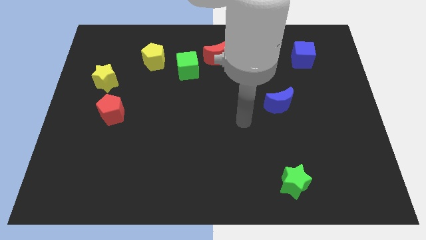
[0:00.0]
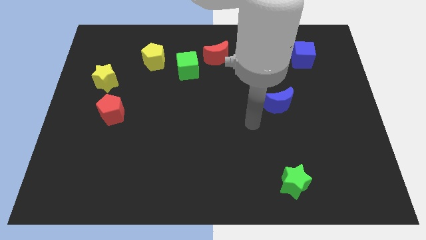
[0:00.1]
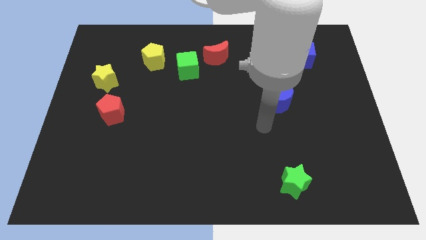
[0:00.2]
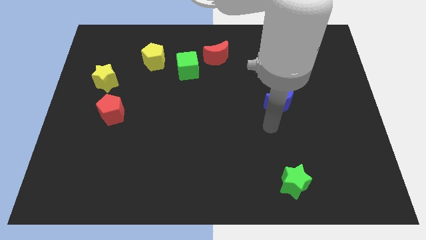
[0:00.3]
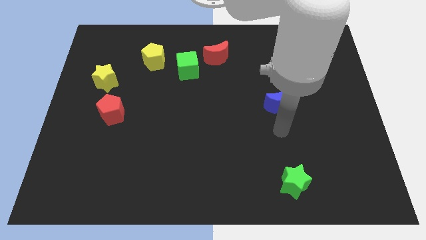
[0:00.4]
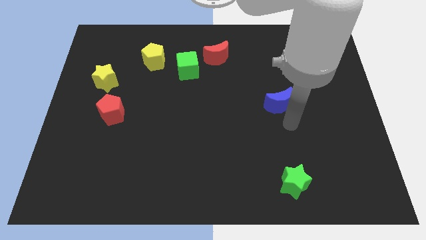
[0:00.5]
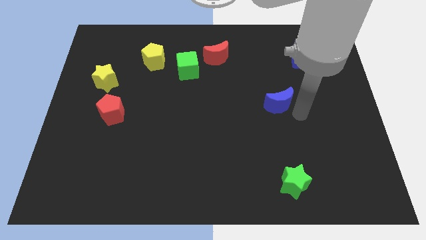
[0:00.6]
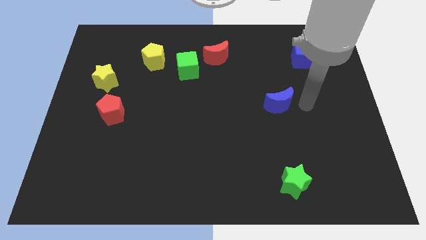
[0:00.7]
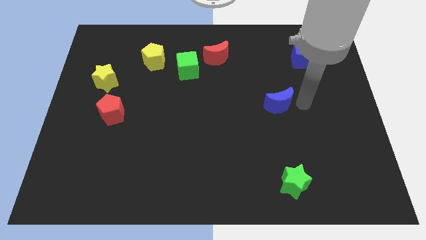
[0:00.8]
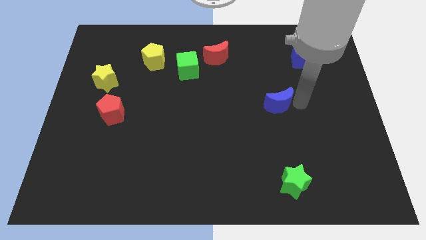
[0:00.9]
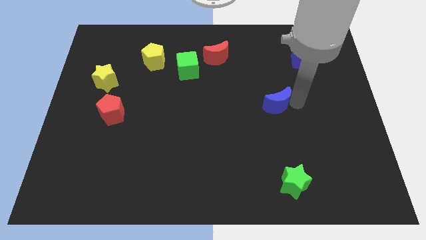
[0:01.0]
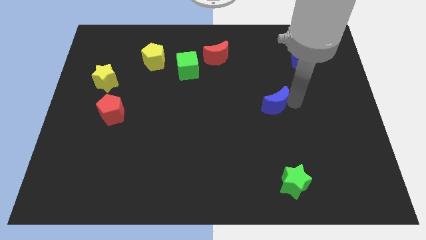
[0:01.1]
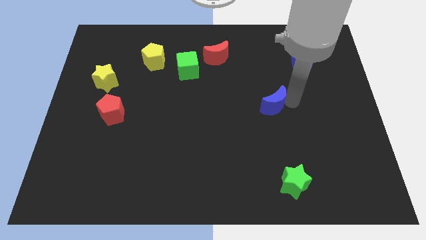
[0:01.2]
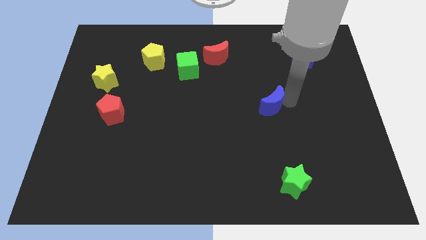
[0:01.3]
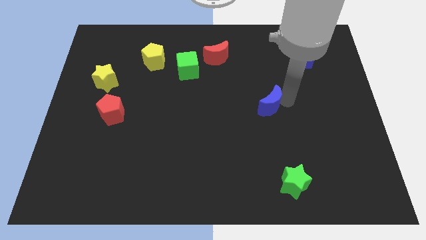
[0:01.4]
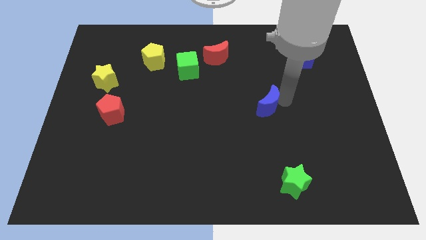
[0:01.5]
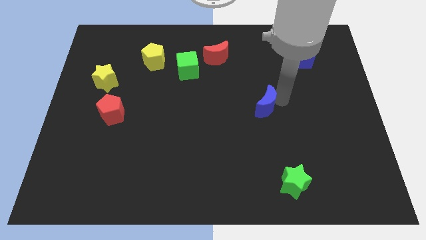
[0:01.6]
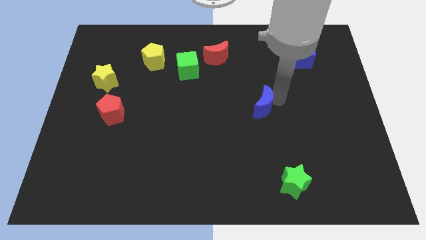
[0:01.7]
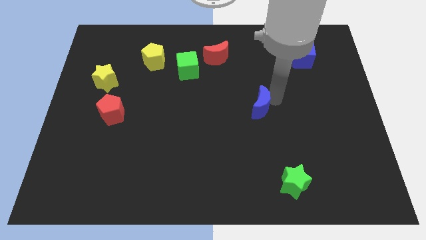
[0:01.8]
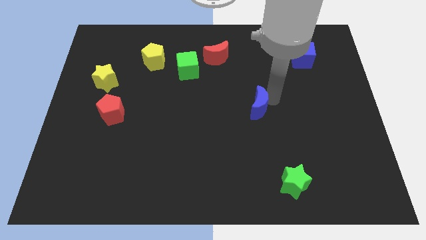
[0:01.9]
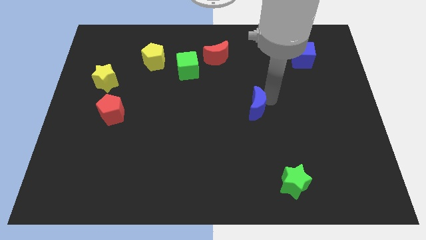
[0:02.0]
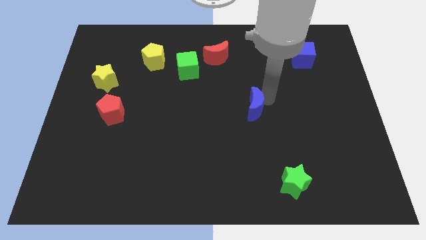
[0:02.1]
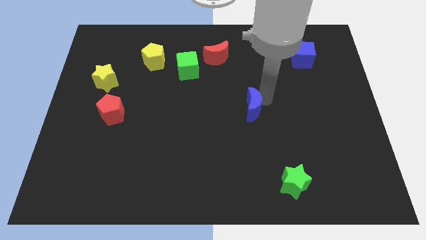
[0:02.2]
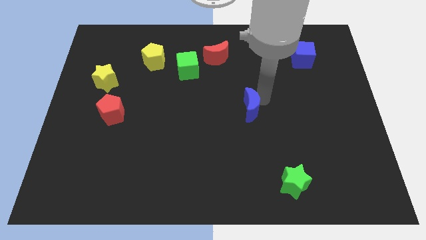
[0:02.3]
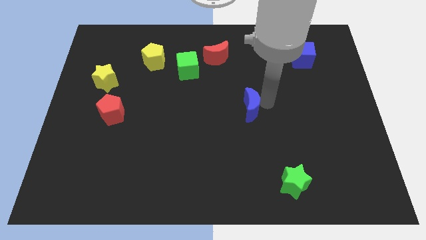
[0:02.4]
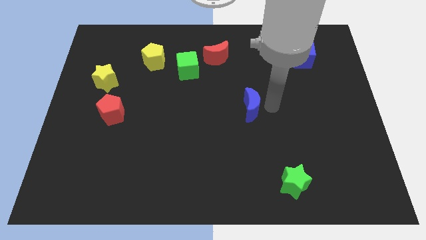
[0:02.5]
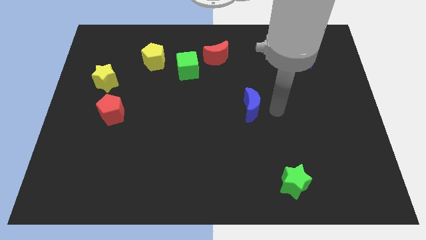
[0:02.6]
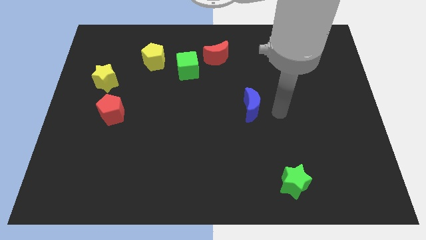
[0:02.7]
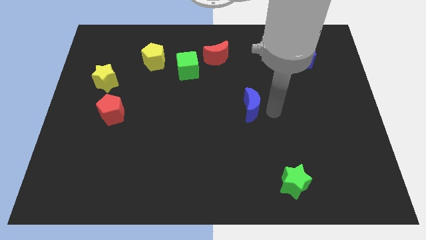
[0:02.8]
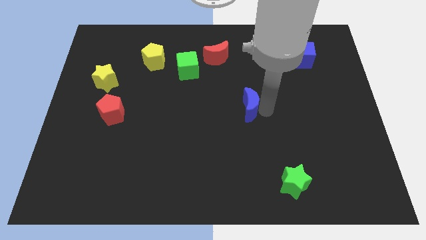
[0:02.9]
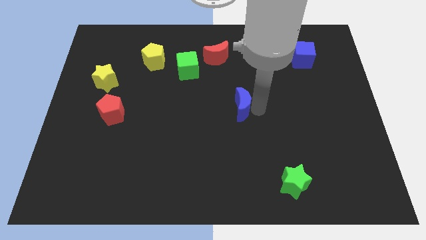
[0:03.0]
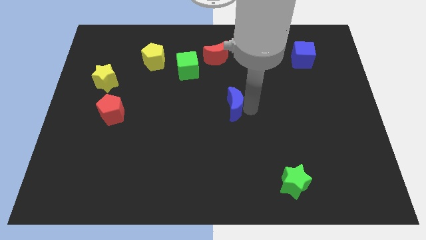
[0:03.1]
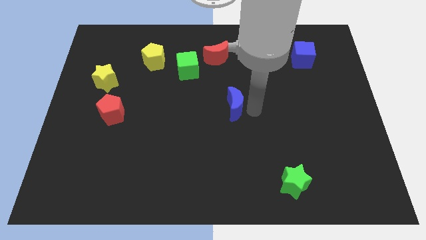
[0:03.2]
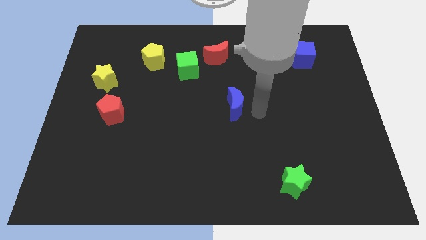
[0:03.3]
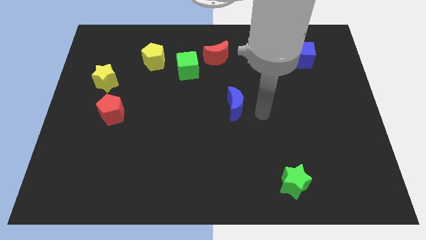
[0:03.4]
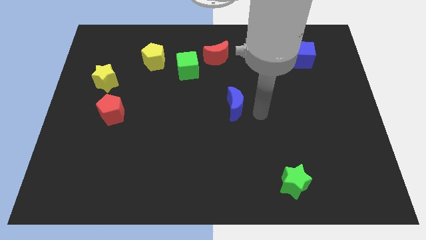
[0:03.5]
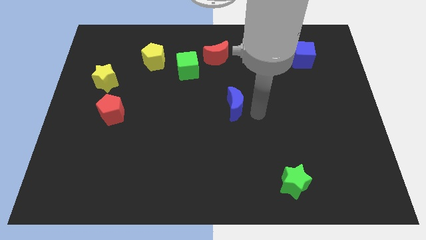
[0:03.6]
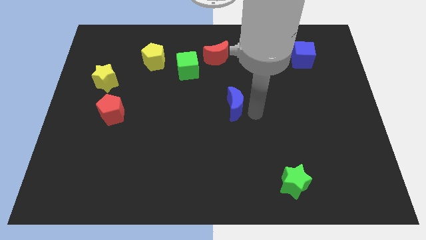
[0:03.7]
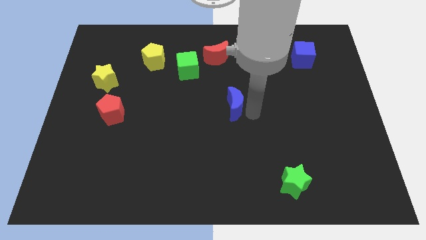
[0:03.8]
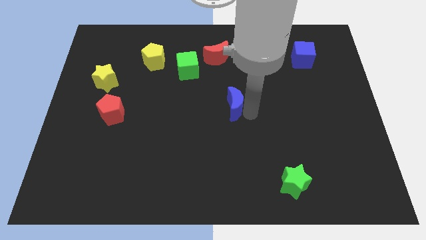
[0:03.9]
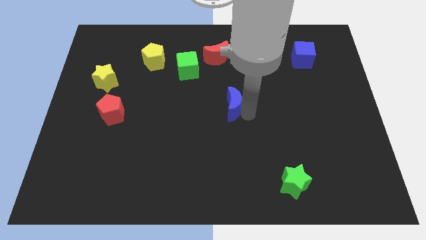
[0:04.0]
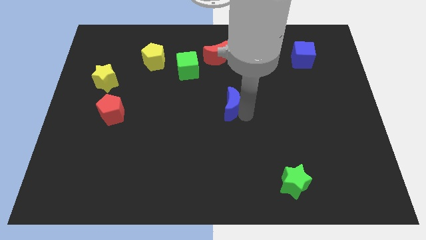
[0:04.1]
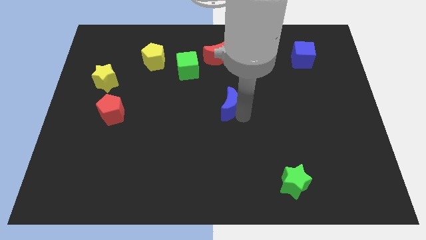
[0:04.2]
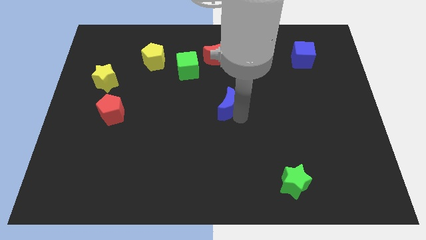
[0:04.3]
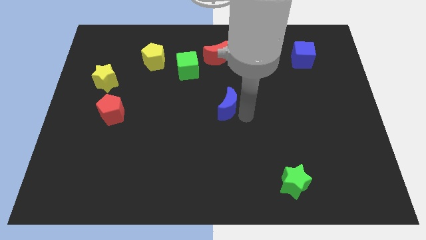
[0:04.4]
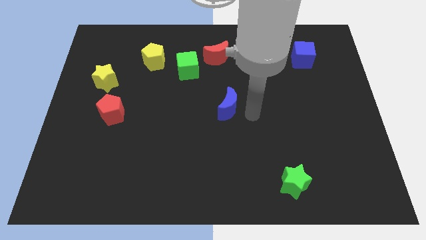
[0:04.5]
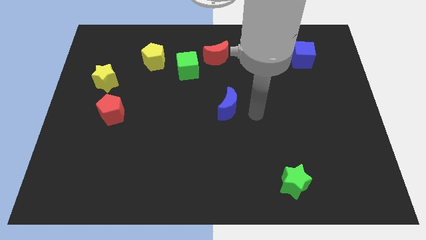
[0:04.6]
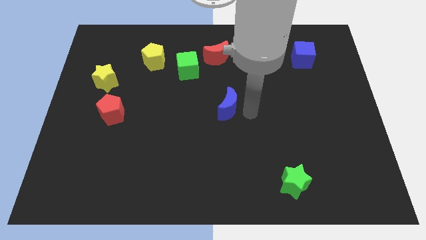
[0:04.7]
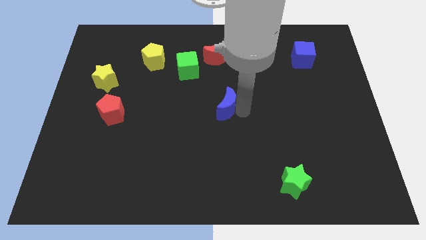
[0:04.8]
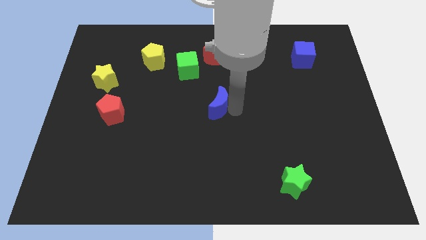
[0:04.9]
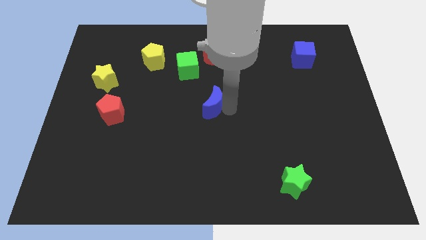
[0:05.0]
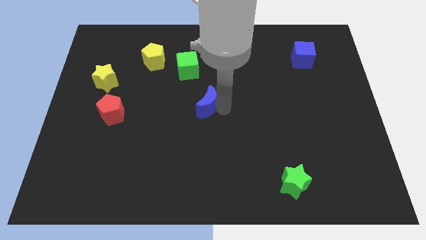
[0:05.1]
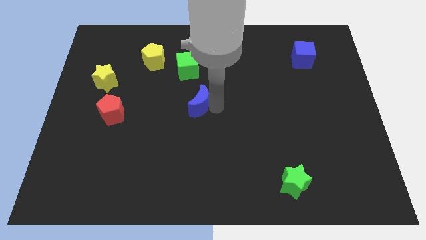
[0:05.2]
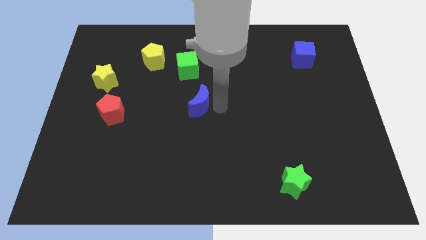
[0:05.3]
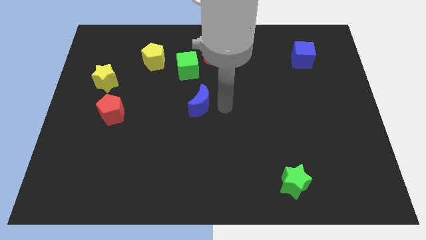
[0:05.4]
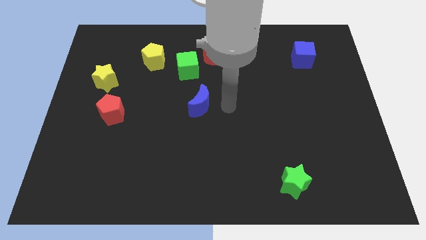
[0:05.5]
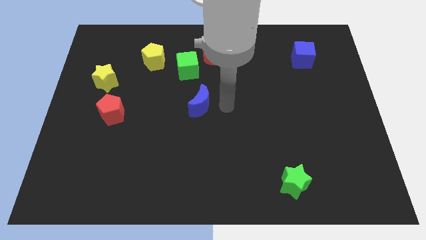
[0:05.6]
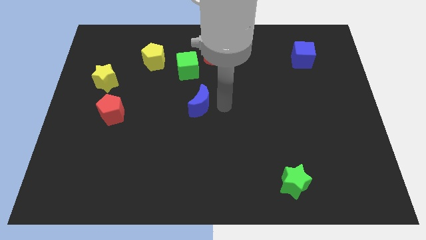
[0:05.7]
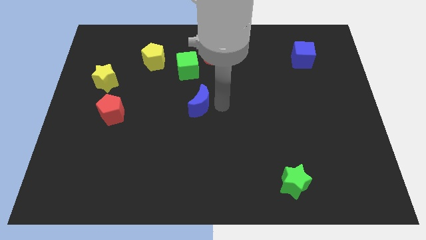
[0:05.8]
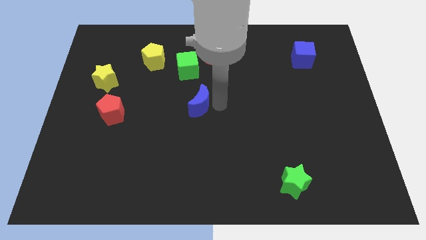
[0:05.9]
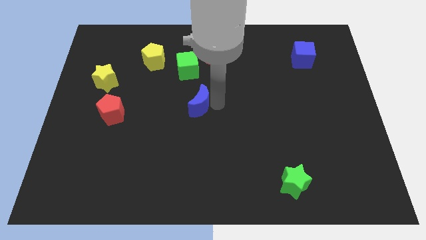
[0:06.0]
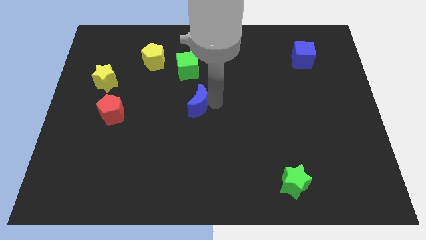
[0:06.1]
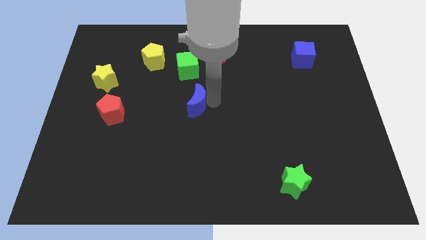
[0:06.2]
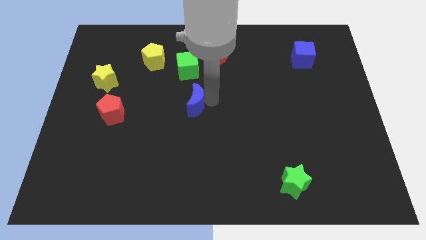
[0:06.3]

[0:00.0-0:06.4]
push the blue moon left

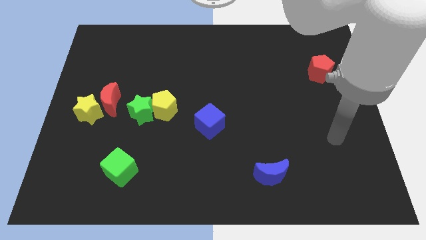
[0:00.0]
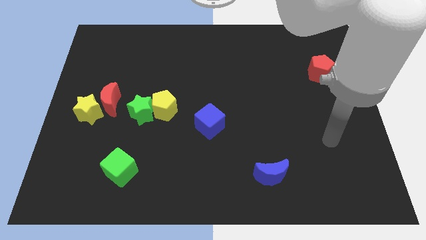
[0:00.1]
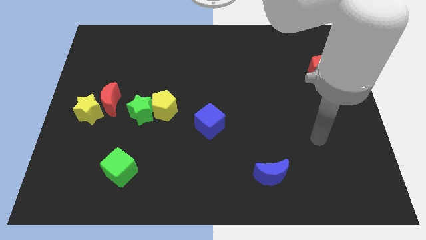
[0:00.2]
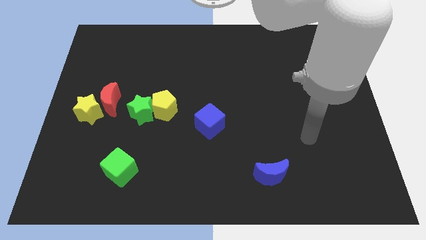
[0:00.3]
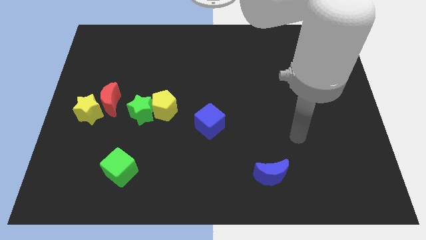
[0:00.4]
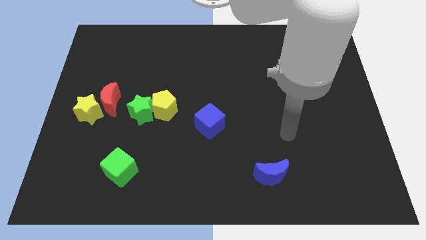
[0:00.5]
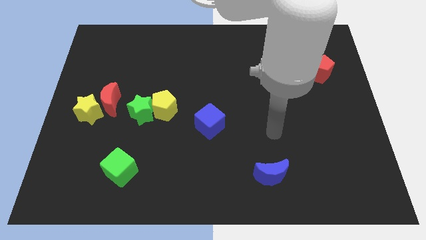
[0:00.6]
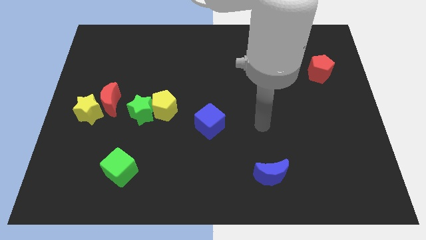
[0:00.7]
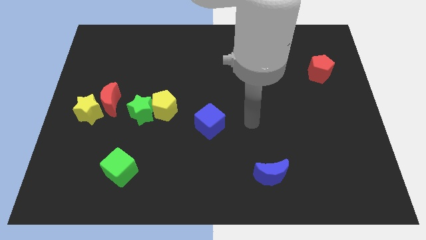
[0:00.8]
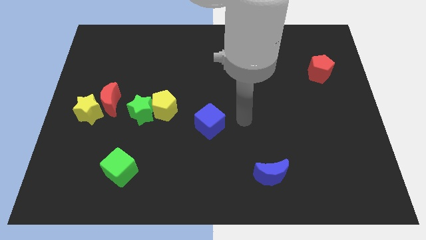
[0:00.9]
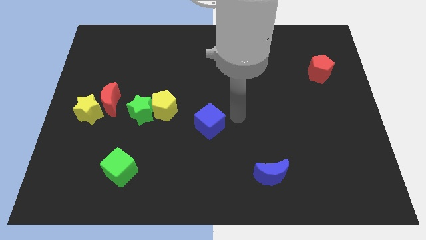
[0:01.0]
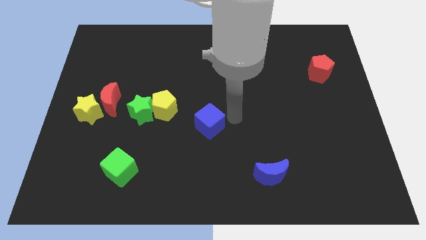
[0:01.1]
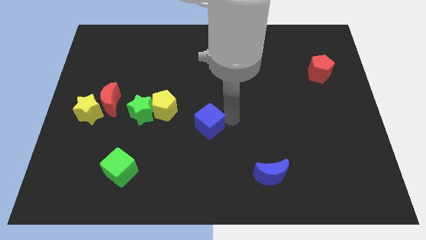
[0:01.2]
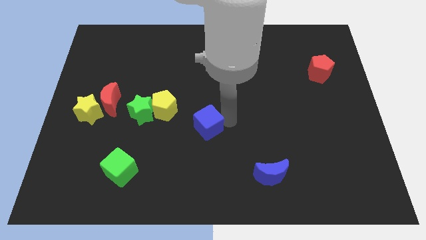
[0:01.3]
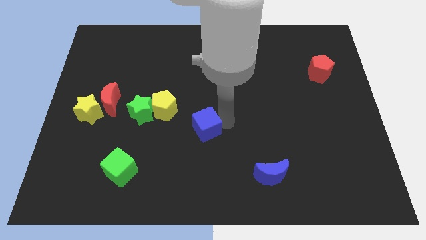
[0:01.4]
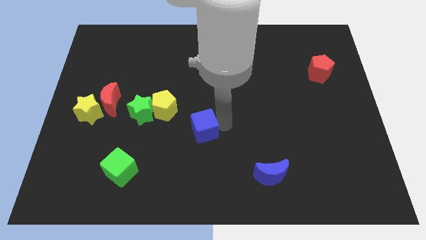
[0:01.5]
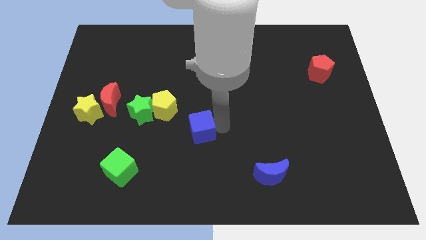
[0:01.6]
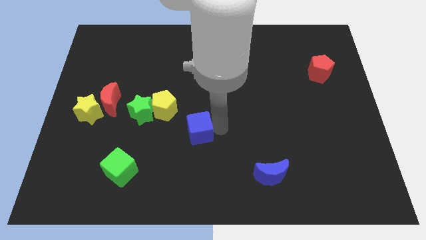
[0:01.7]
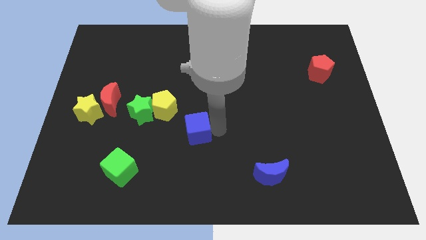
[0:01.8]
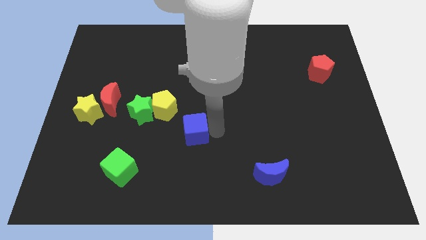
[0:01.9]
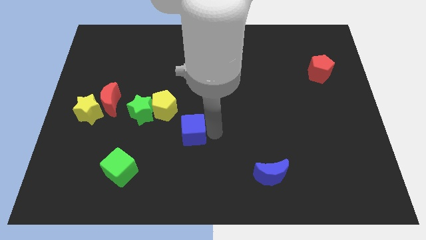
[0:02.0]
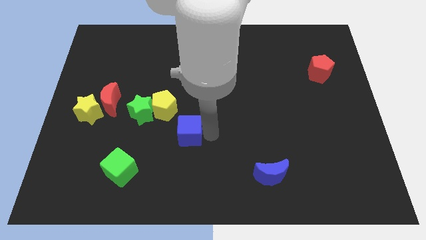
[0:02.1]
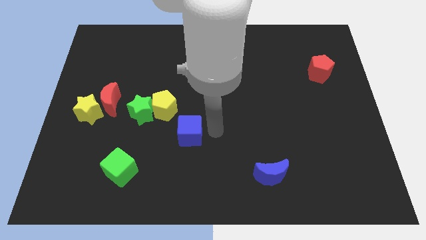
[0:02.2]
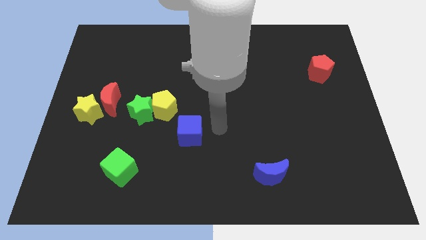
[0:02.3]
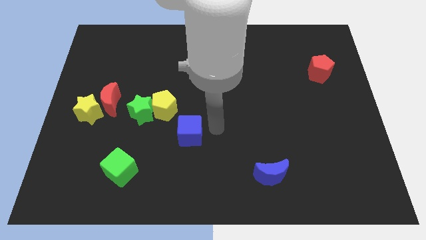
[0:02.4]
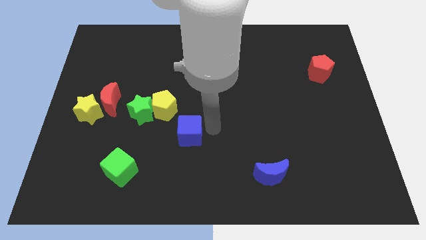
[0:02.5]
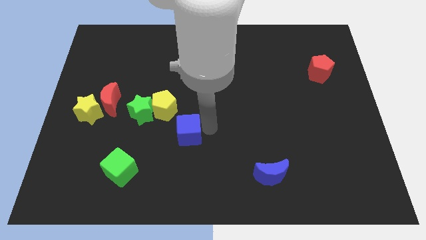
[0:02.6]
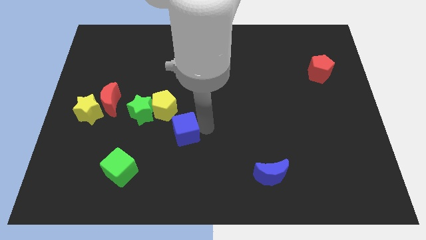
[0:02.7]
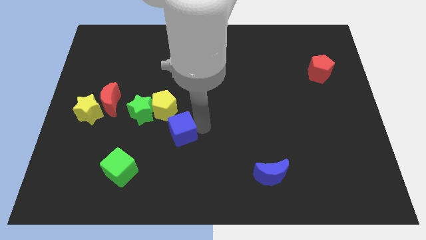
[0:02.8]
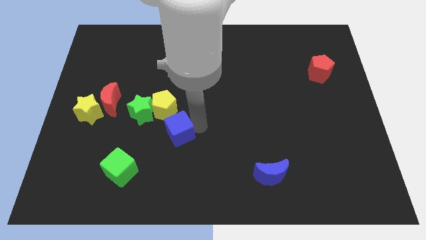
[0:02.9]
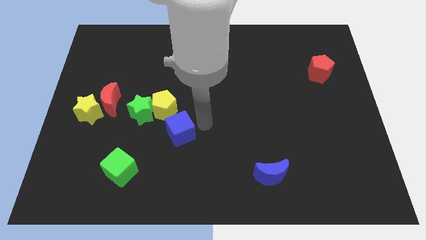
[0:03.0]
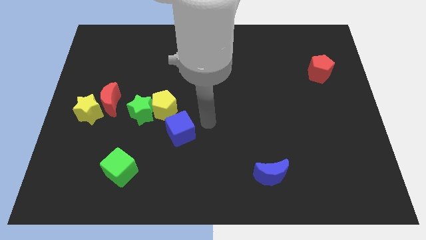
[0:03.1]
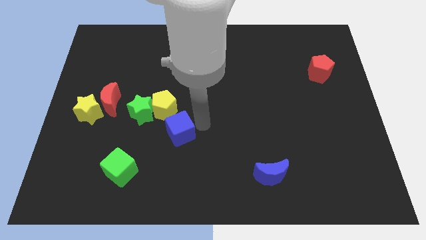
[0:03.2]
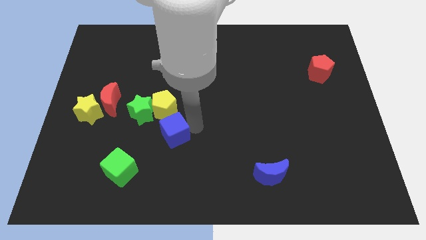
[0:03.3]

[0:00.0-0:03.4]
move the blue cube left slightly
